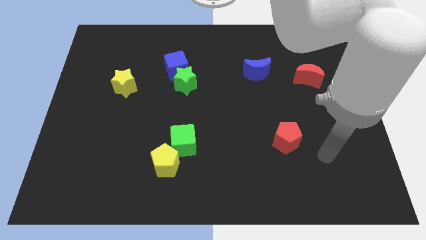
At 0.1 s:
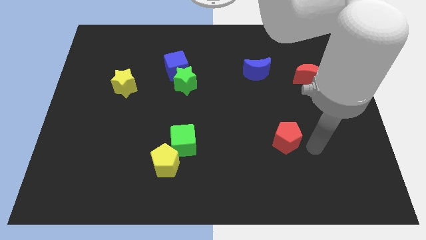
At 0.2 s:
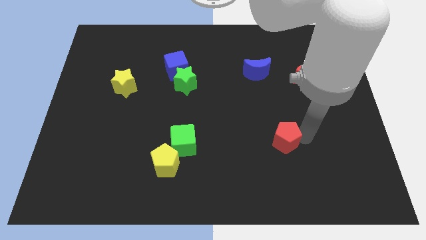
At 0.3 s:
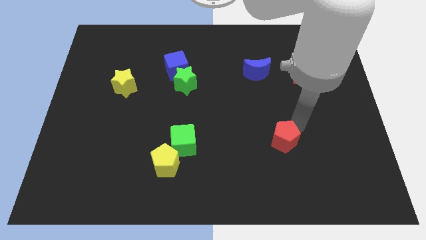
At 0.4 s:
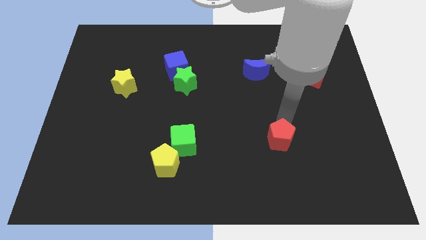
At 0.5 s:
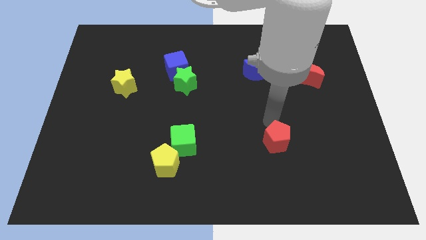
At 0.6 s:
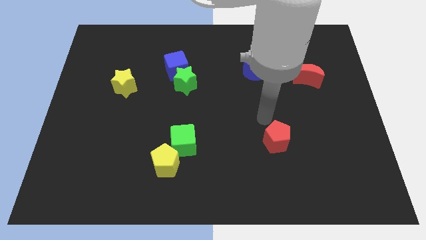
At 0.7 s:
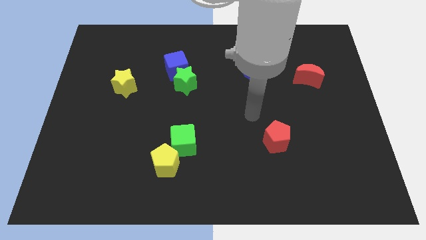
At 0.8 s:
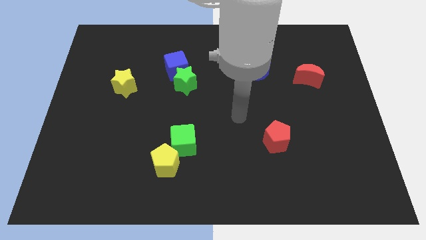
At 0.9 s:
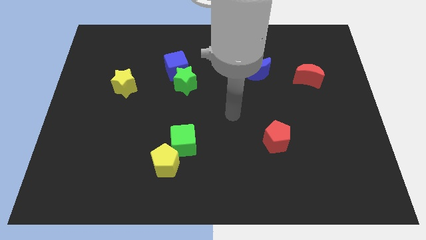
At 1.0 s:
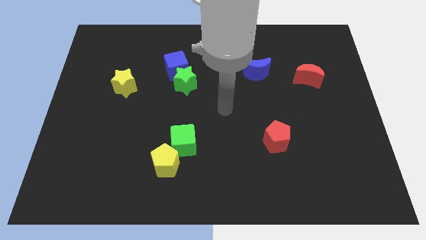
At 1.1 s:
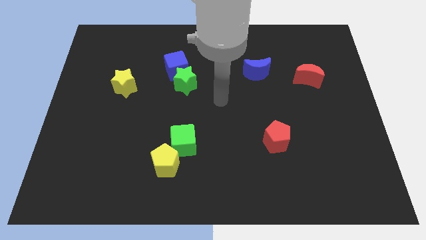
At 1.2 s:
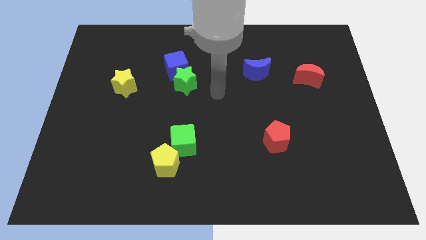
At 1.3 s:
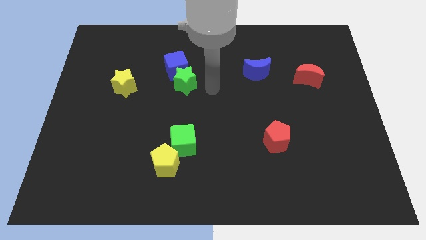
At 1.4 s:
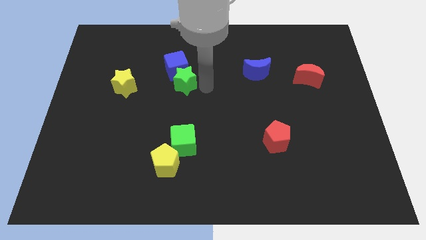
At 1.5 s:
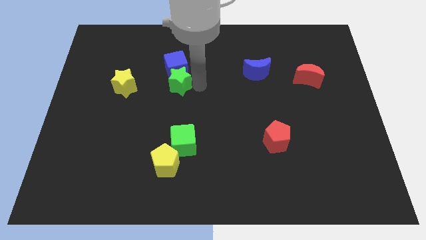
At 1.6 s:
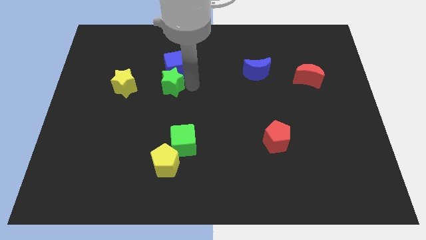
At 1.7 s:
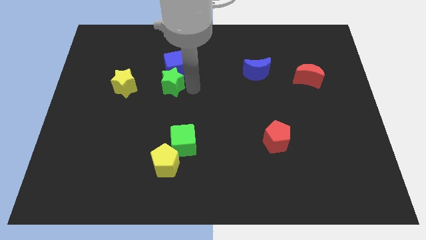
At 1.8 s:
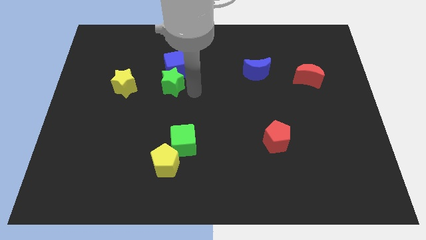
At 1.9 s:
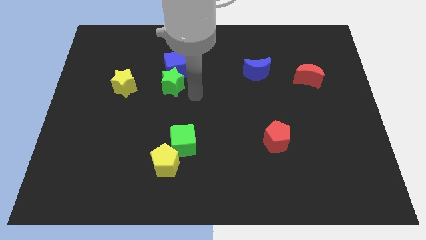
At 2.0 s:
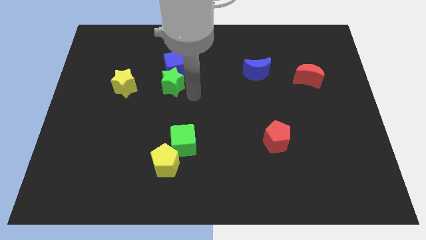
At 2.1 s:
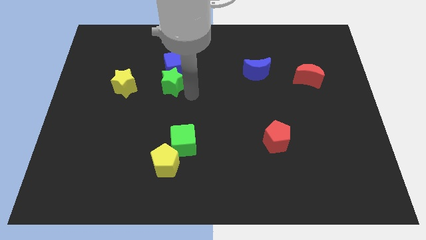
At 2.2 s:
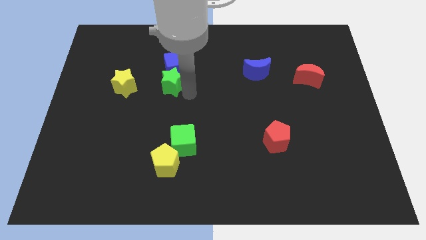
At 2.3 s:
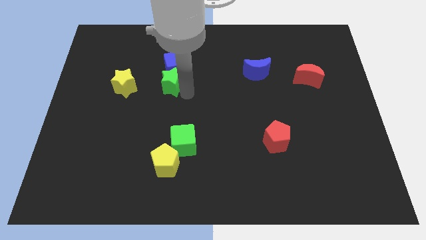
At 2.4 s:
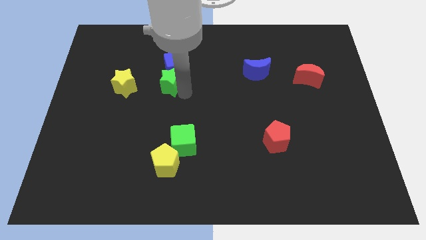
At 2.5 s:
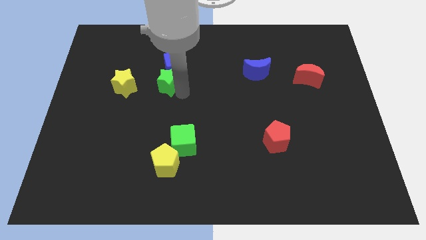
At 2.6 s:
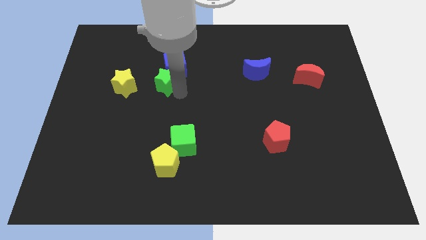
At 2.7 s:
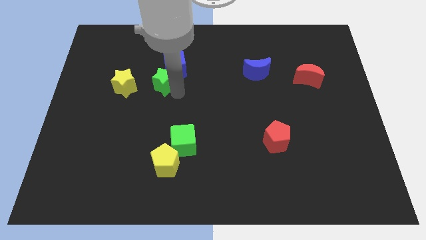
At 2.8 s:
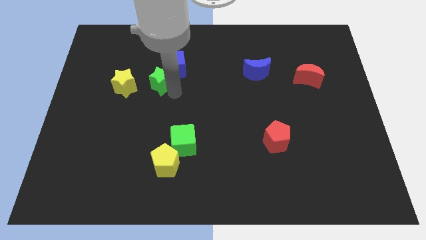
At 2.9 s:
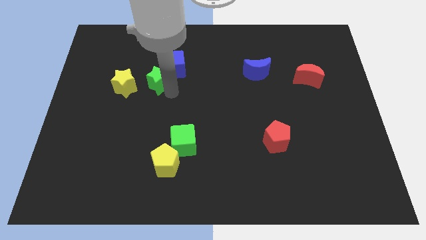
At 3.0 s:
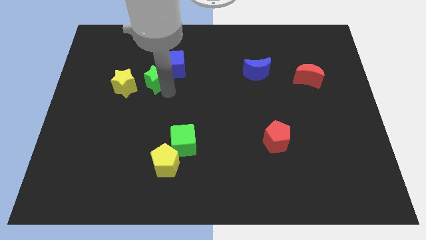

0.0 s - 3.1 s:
move the green star slightly left

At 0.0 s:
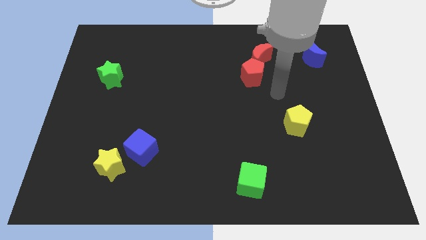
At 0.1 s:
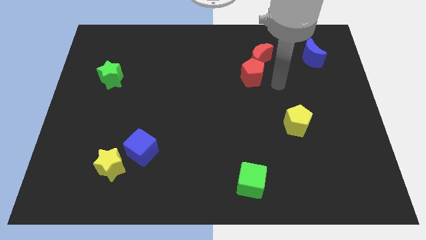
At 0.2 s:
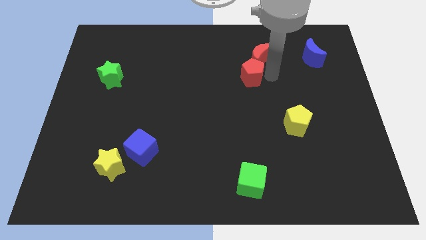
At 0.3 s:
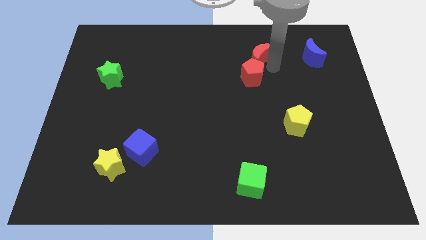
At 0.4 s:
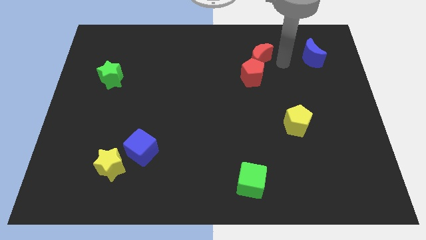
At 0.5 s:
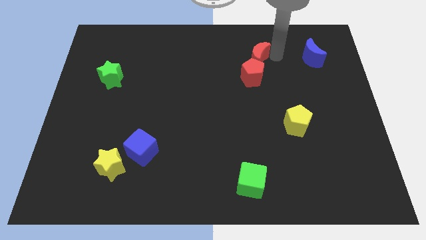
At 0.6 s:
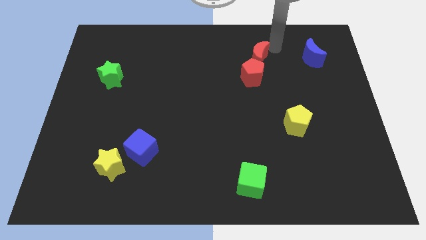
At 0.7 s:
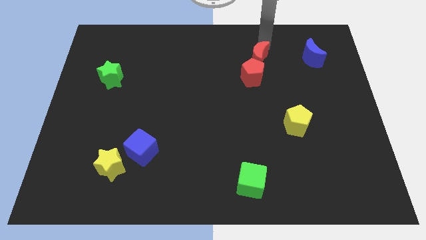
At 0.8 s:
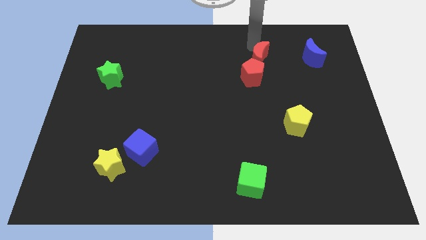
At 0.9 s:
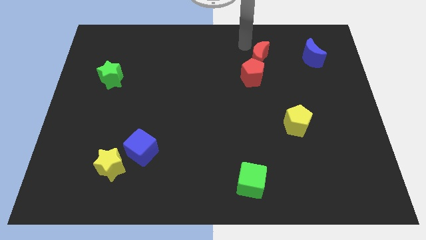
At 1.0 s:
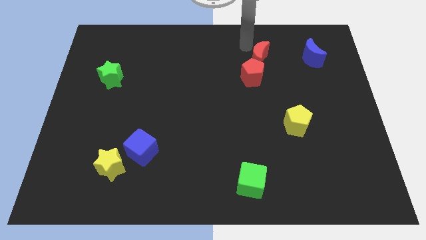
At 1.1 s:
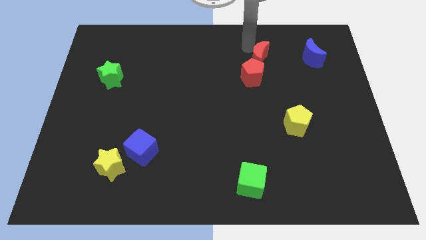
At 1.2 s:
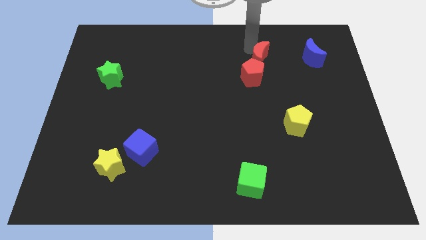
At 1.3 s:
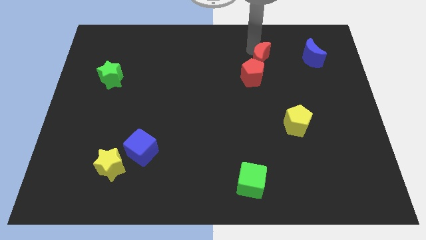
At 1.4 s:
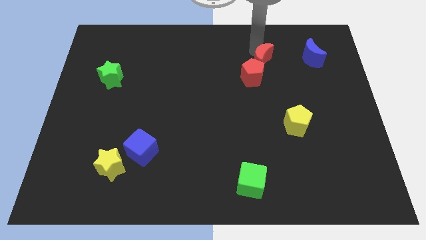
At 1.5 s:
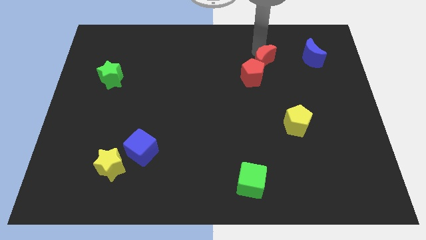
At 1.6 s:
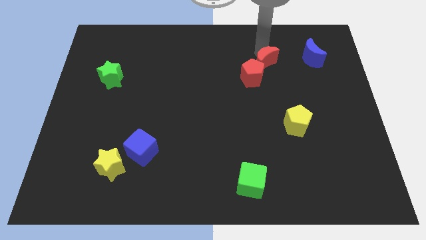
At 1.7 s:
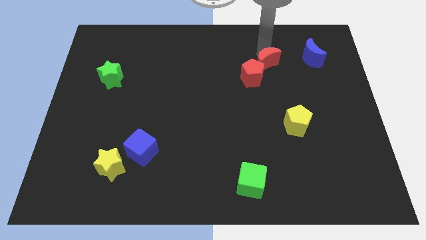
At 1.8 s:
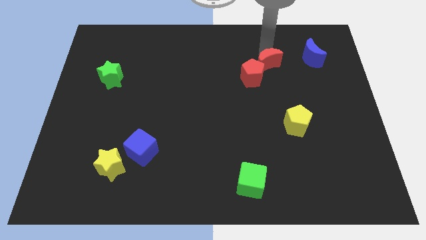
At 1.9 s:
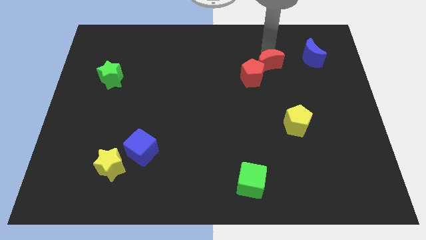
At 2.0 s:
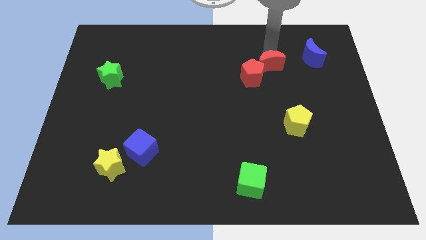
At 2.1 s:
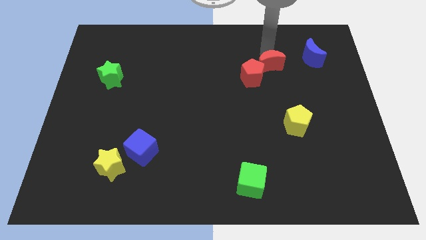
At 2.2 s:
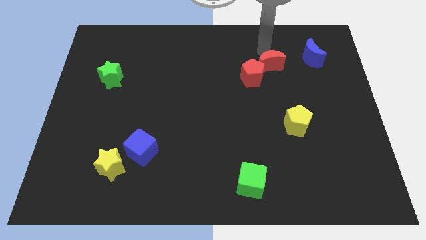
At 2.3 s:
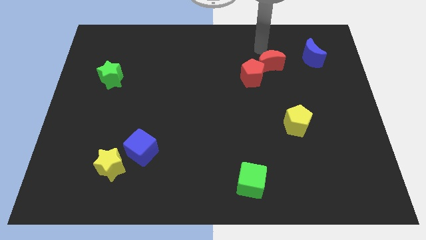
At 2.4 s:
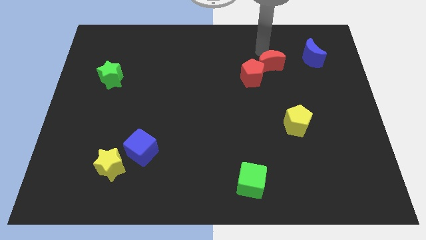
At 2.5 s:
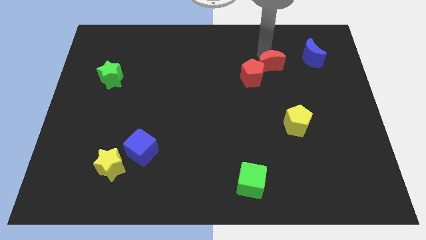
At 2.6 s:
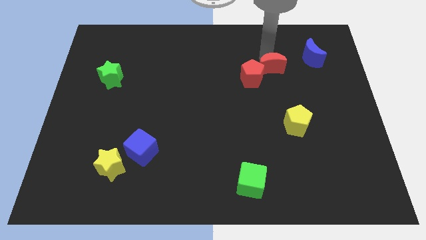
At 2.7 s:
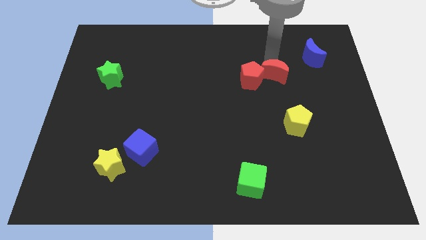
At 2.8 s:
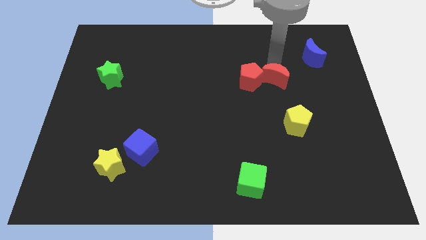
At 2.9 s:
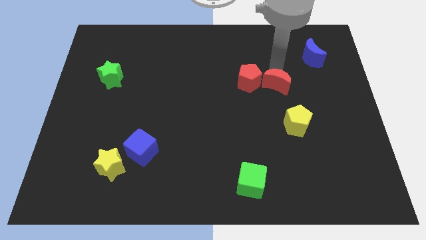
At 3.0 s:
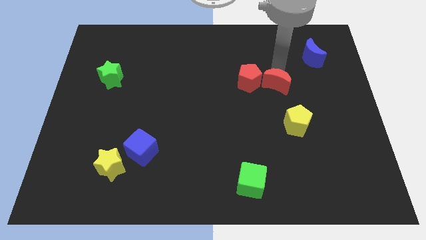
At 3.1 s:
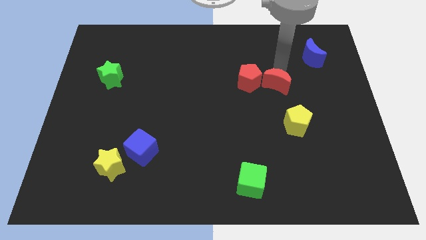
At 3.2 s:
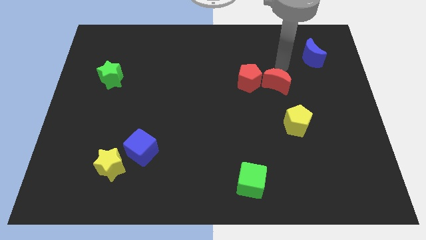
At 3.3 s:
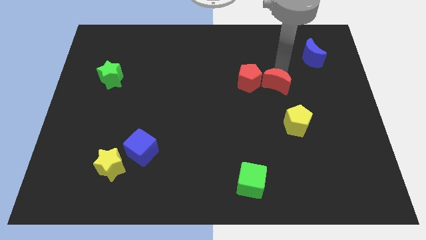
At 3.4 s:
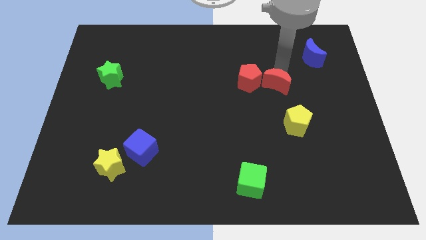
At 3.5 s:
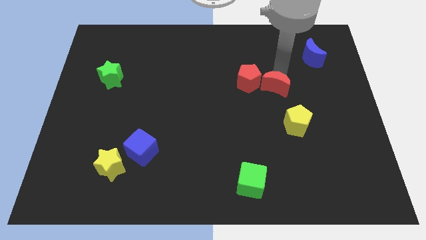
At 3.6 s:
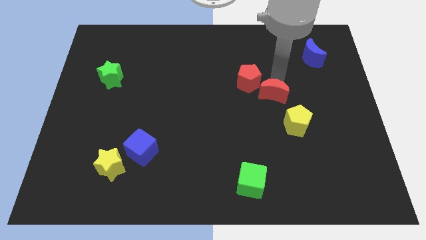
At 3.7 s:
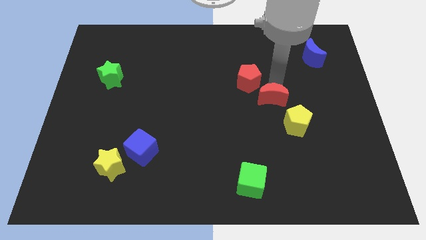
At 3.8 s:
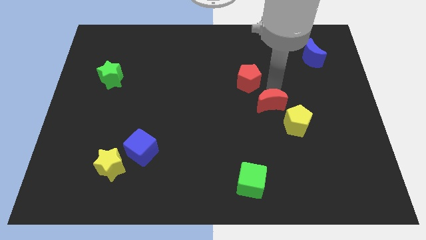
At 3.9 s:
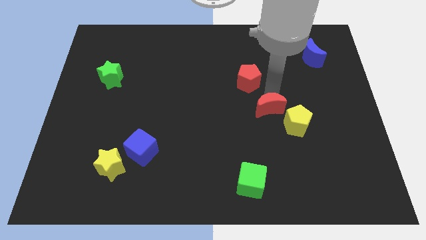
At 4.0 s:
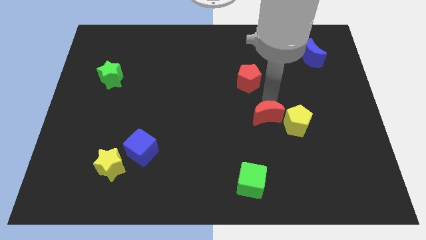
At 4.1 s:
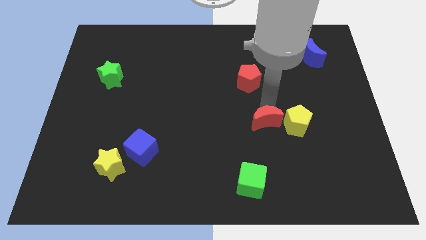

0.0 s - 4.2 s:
slide the red moon down

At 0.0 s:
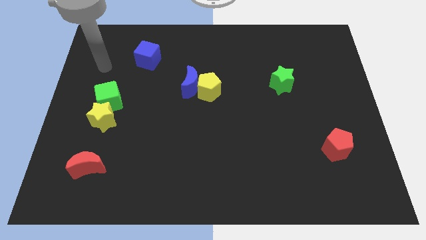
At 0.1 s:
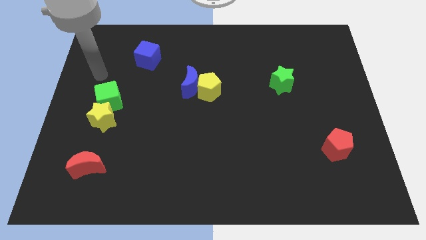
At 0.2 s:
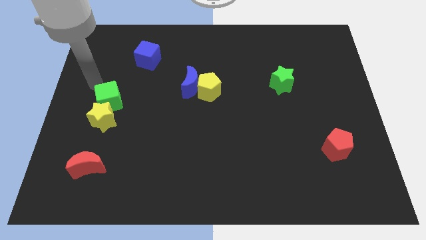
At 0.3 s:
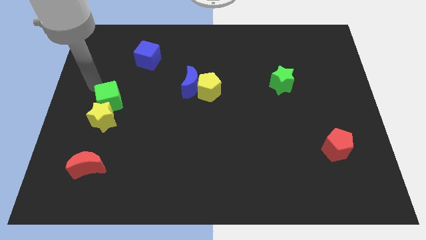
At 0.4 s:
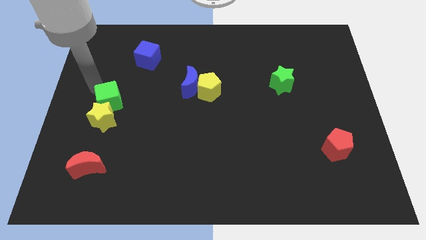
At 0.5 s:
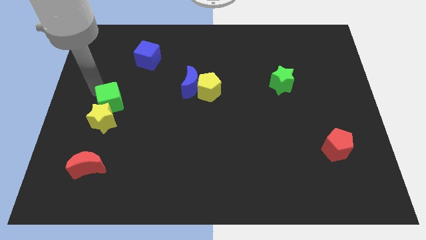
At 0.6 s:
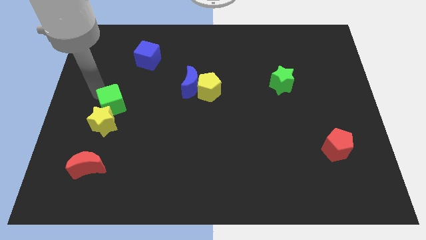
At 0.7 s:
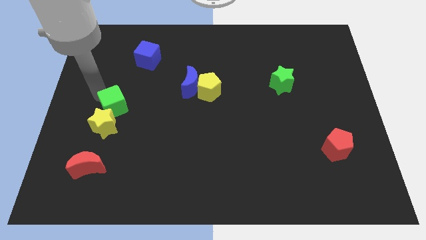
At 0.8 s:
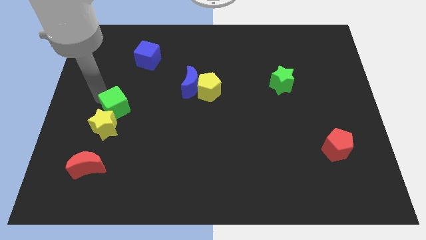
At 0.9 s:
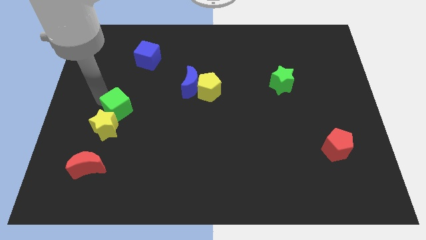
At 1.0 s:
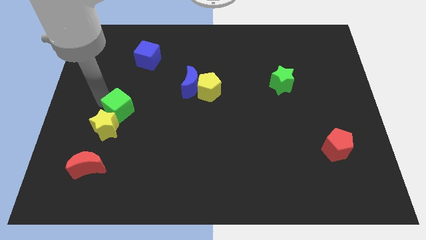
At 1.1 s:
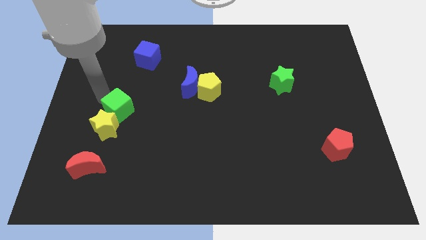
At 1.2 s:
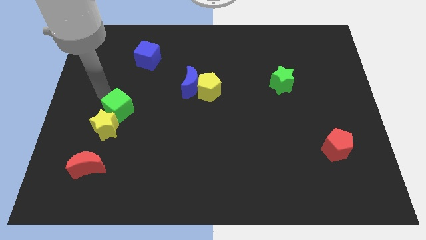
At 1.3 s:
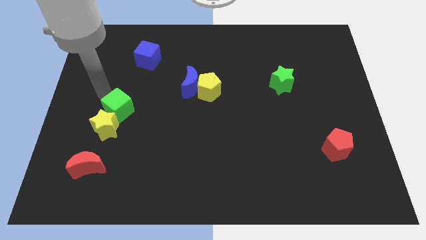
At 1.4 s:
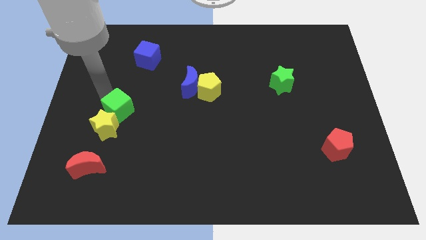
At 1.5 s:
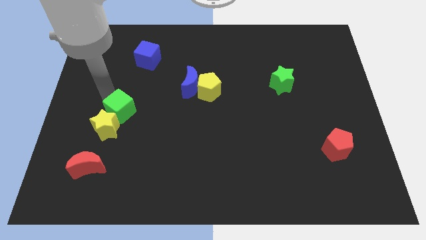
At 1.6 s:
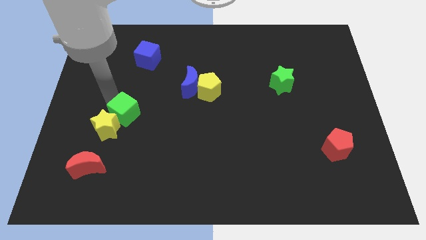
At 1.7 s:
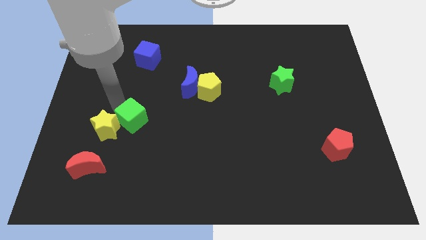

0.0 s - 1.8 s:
slide the green cube diagonally downwards and to the right a little
